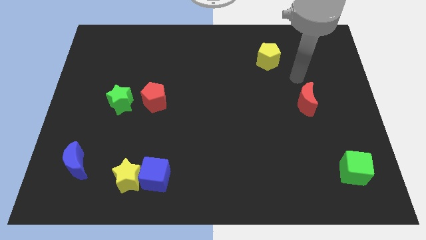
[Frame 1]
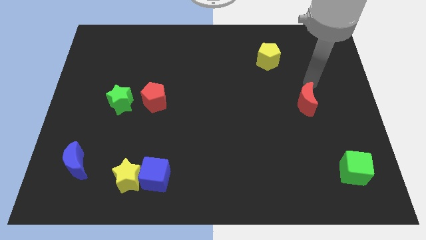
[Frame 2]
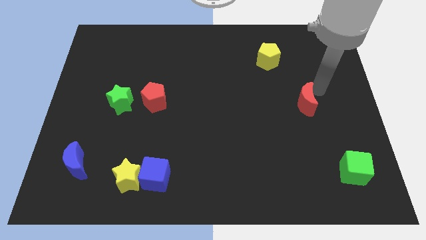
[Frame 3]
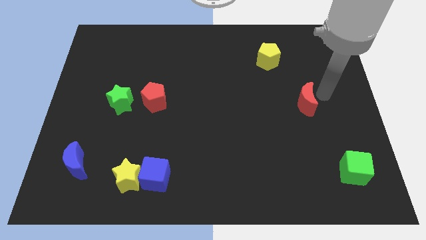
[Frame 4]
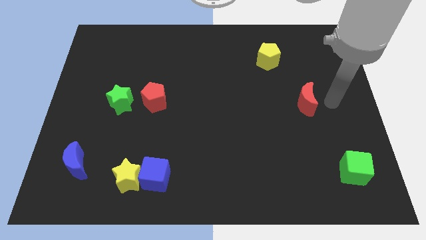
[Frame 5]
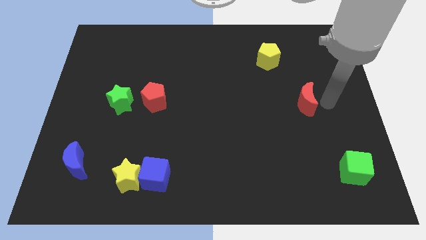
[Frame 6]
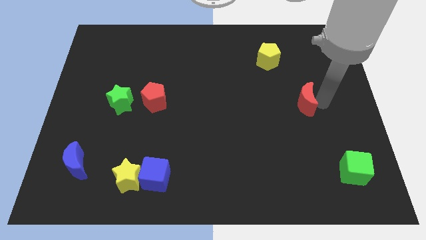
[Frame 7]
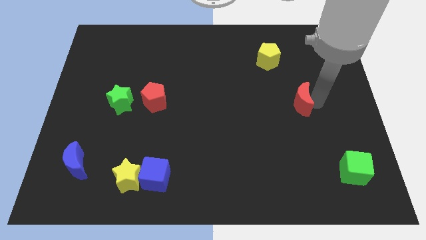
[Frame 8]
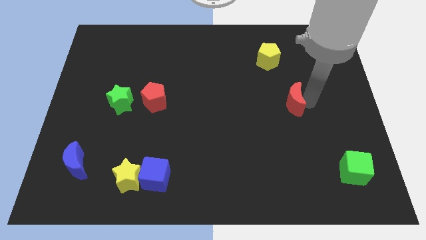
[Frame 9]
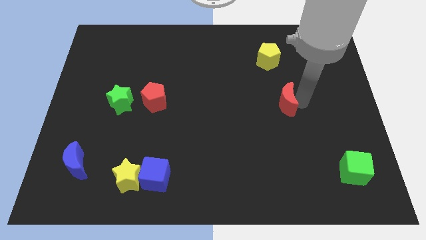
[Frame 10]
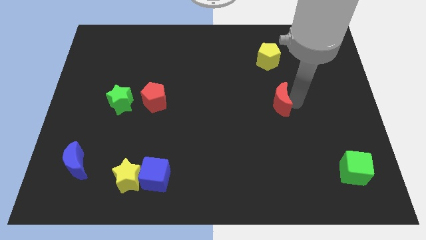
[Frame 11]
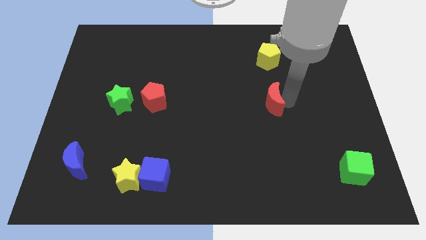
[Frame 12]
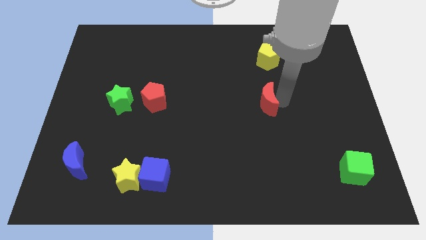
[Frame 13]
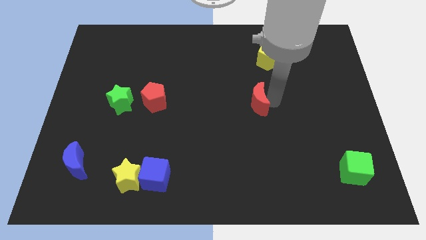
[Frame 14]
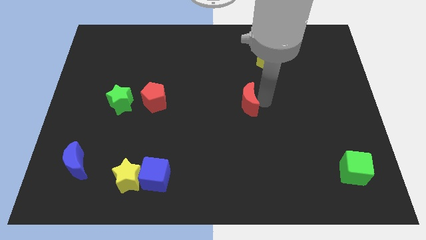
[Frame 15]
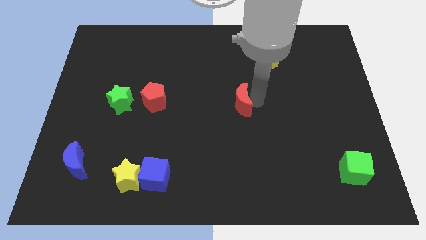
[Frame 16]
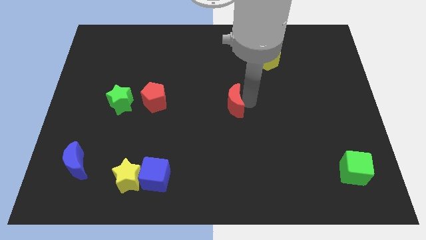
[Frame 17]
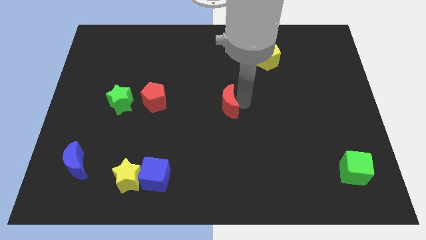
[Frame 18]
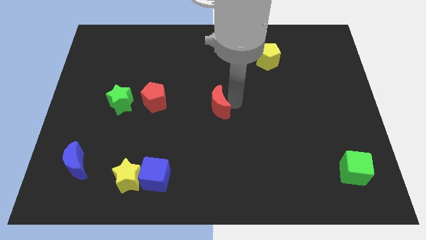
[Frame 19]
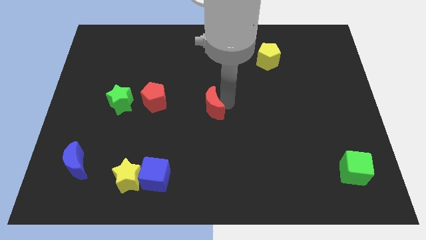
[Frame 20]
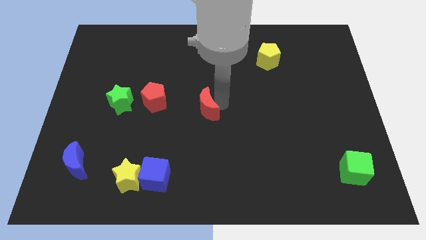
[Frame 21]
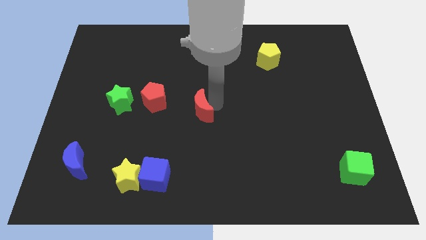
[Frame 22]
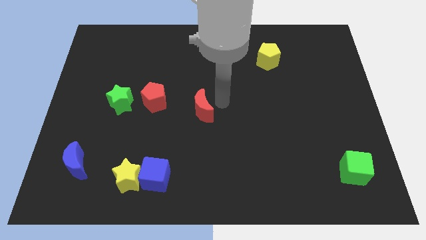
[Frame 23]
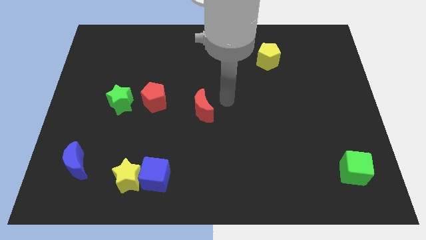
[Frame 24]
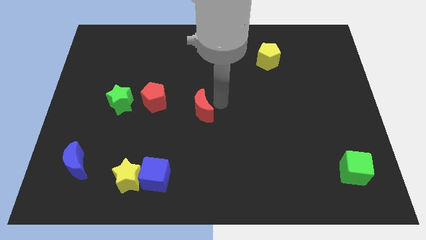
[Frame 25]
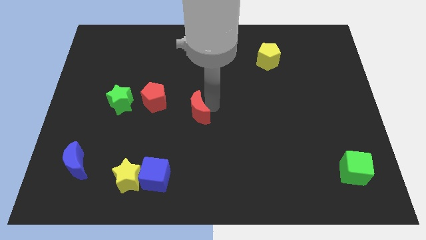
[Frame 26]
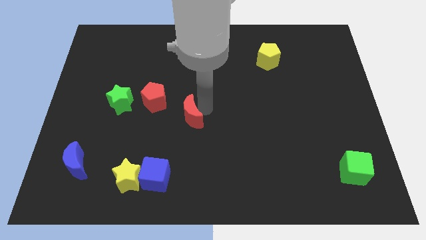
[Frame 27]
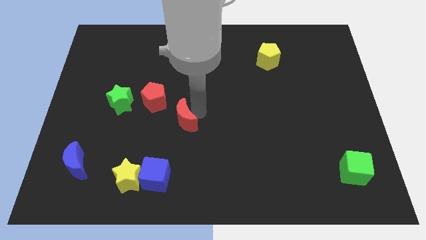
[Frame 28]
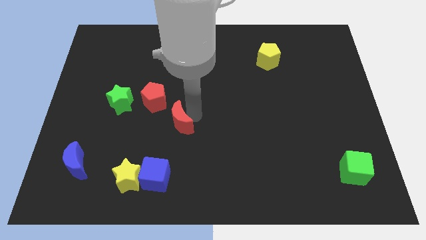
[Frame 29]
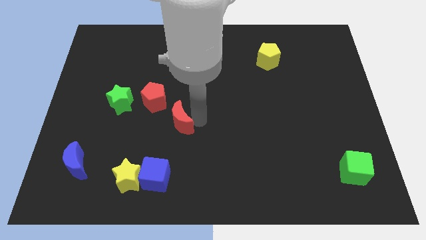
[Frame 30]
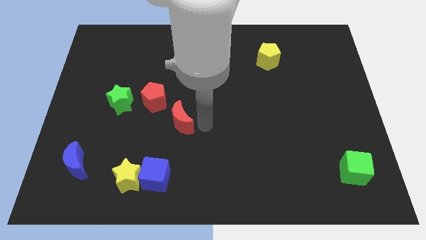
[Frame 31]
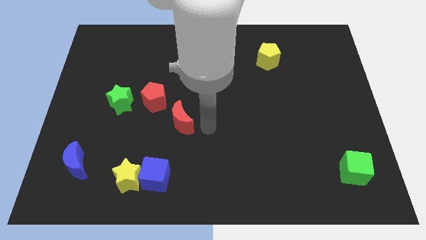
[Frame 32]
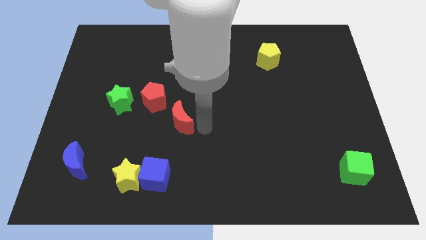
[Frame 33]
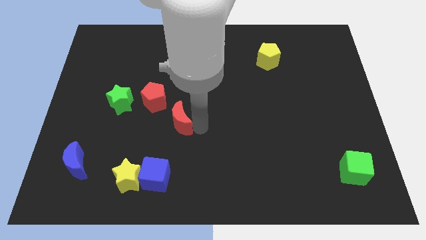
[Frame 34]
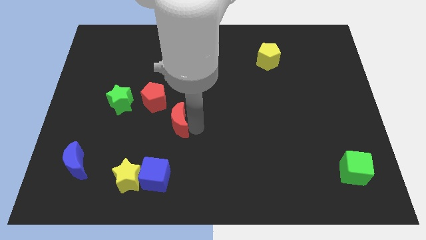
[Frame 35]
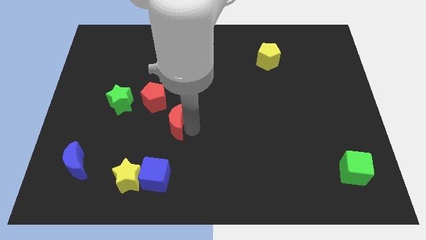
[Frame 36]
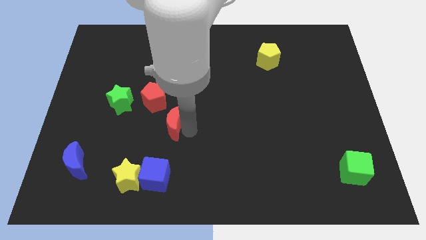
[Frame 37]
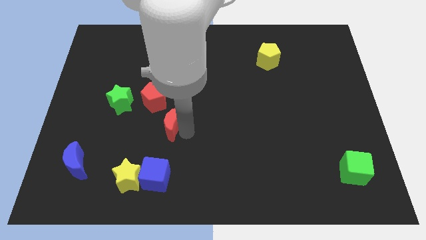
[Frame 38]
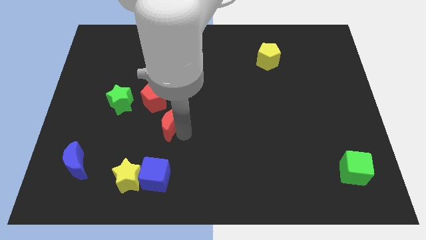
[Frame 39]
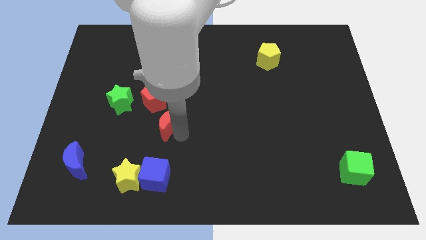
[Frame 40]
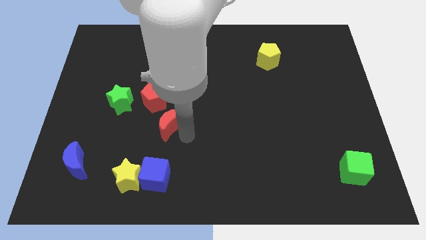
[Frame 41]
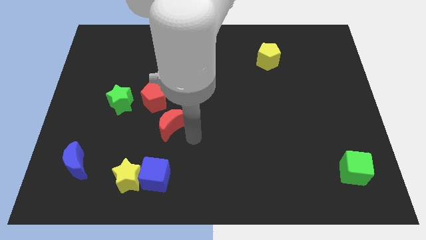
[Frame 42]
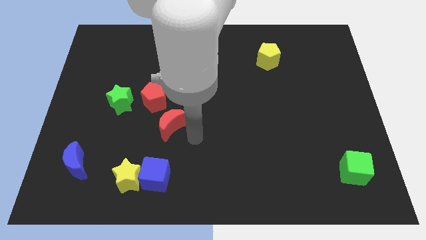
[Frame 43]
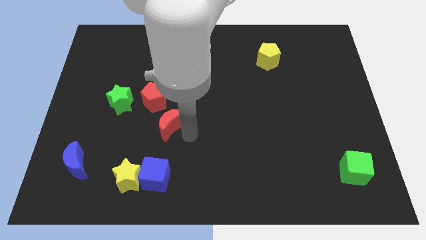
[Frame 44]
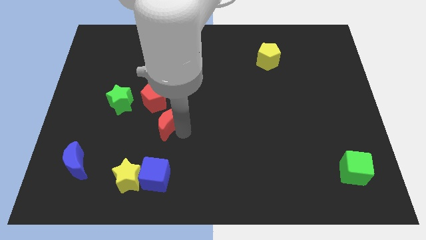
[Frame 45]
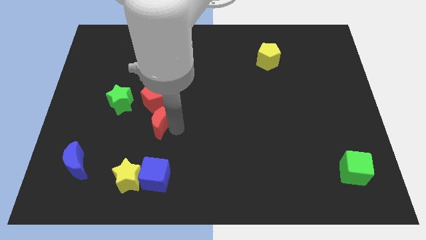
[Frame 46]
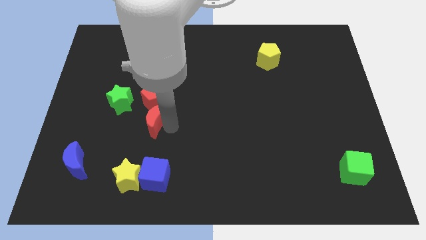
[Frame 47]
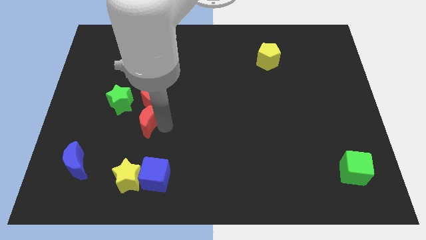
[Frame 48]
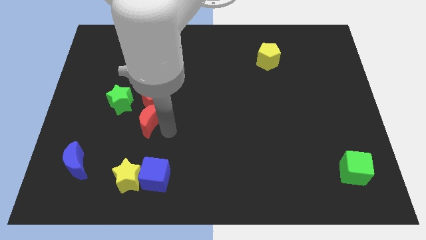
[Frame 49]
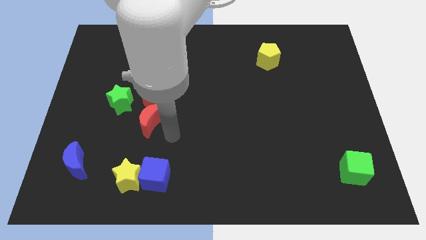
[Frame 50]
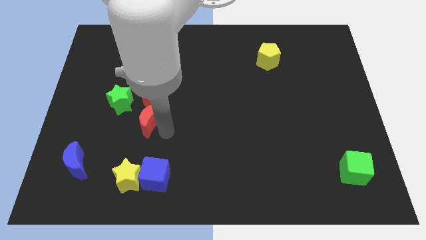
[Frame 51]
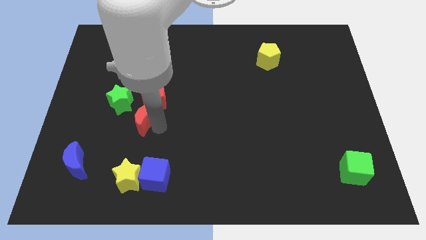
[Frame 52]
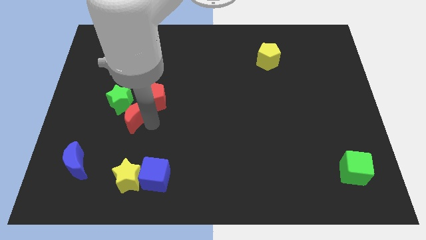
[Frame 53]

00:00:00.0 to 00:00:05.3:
slide the red moon towards the green star

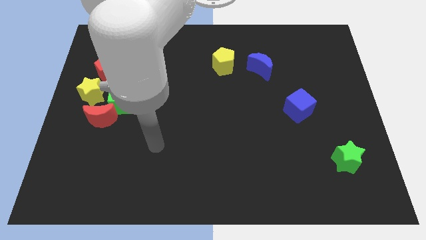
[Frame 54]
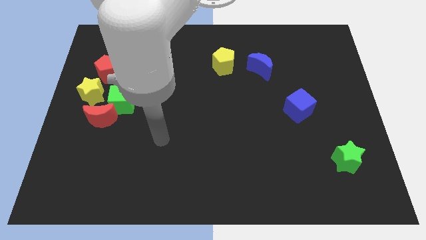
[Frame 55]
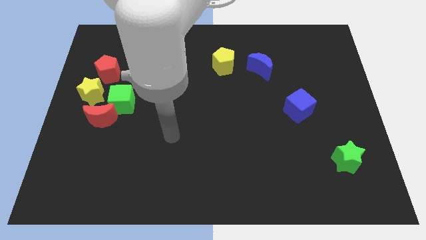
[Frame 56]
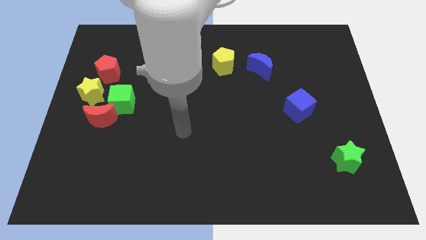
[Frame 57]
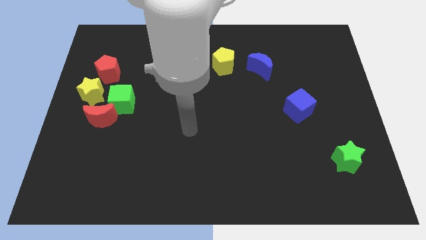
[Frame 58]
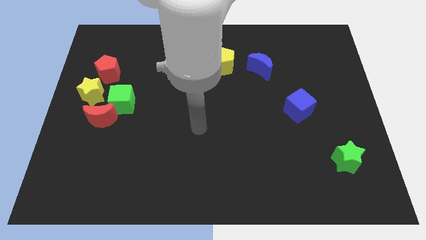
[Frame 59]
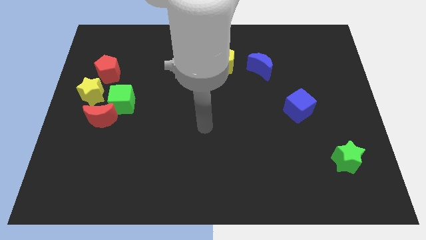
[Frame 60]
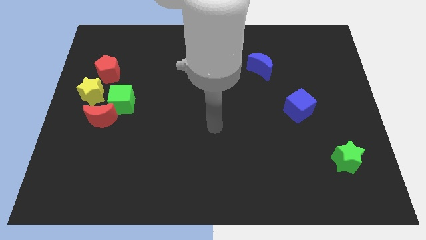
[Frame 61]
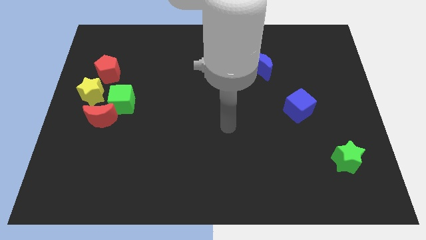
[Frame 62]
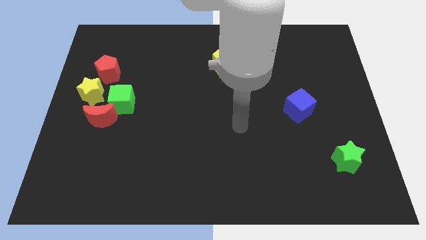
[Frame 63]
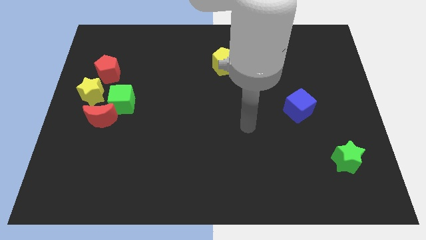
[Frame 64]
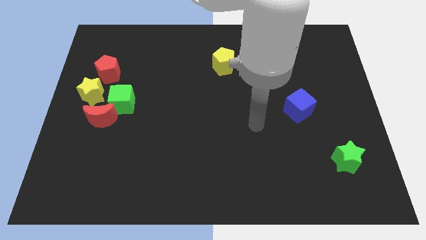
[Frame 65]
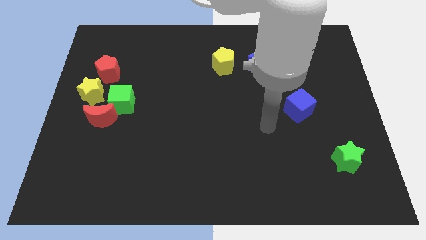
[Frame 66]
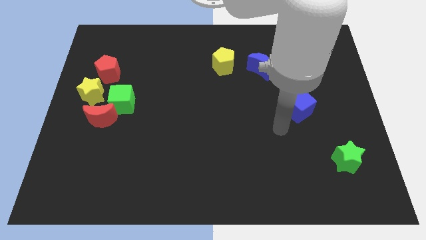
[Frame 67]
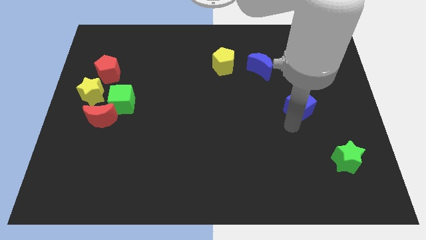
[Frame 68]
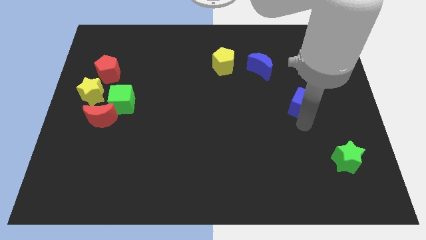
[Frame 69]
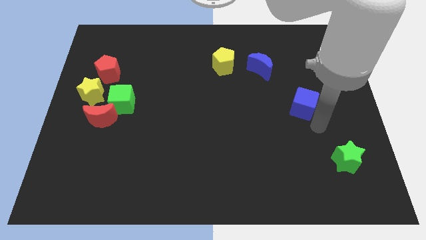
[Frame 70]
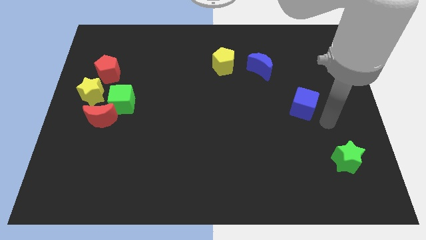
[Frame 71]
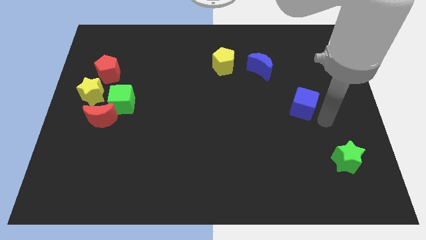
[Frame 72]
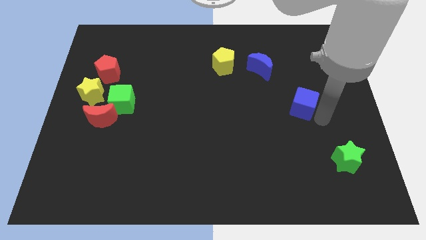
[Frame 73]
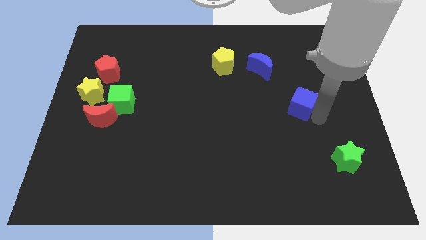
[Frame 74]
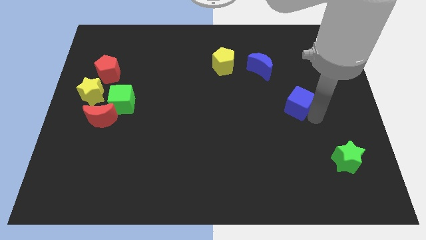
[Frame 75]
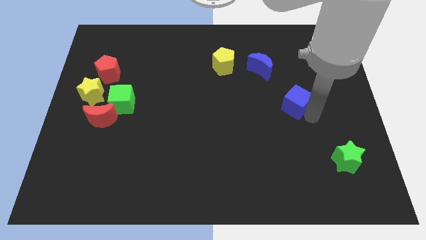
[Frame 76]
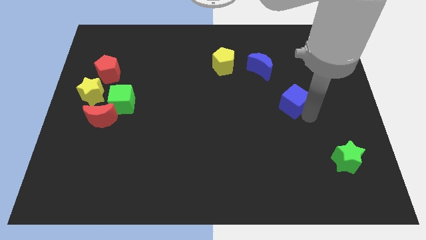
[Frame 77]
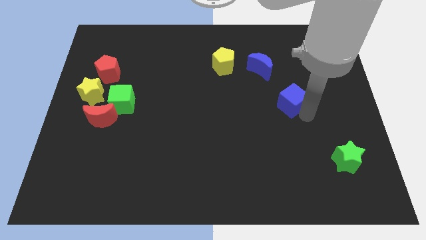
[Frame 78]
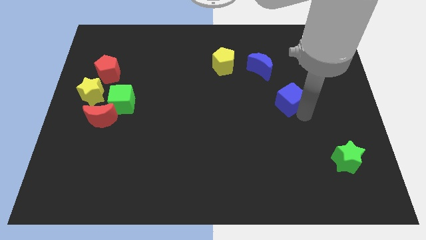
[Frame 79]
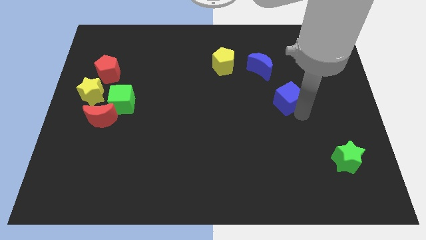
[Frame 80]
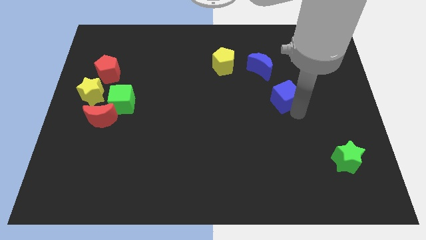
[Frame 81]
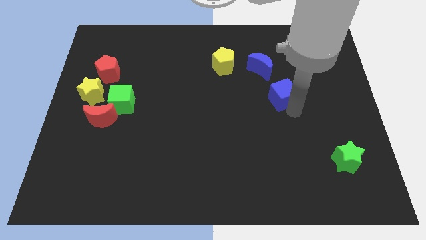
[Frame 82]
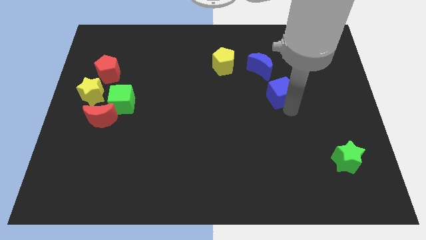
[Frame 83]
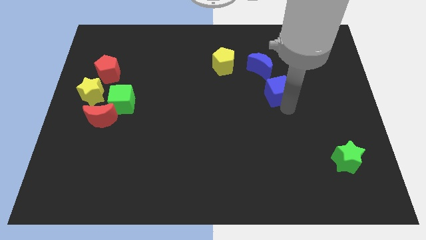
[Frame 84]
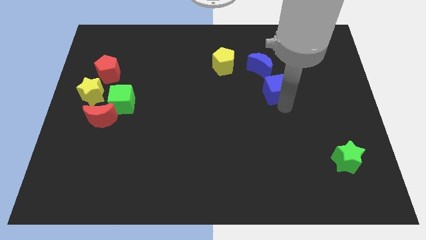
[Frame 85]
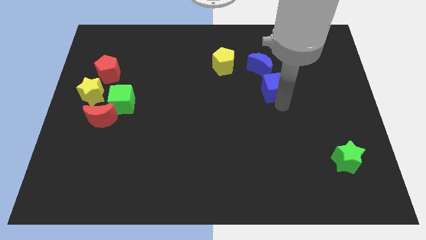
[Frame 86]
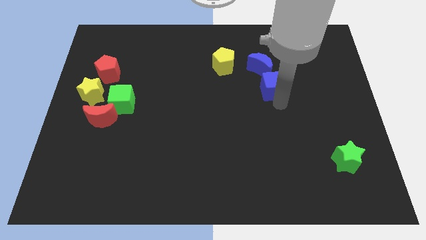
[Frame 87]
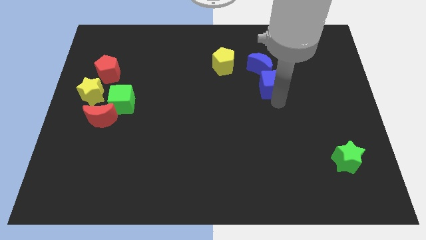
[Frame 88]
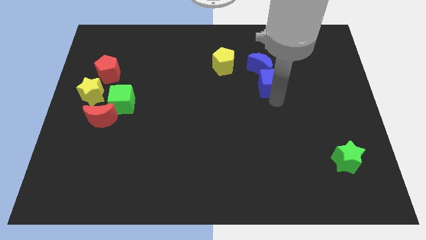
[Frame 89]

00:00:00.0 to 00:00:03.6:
slide the blue cube next to the blue moon
